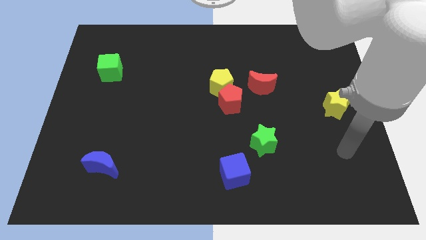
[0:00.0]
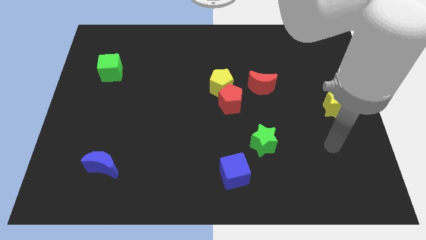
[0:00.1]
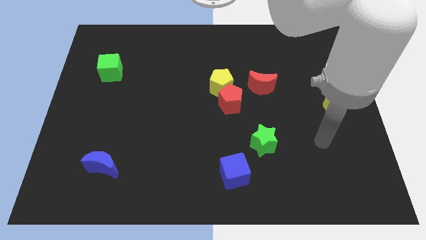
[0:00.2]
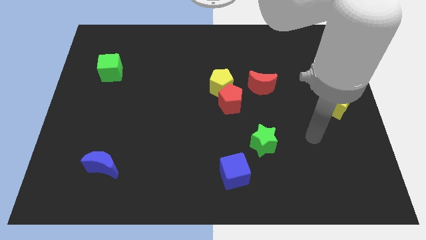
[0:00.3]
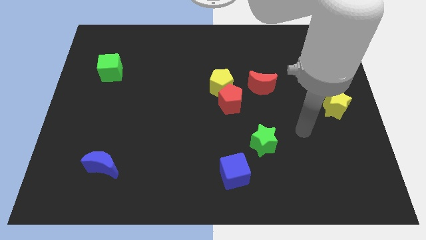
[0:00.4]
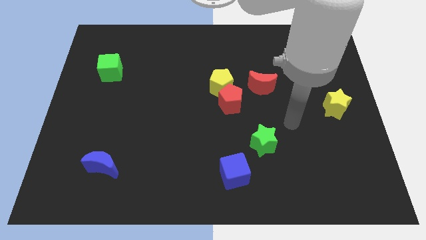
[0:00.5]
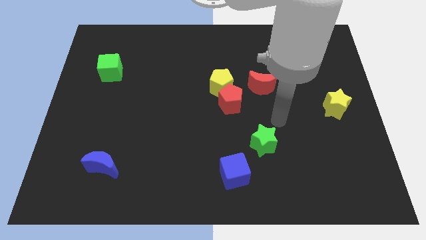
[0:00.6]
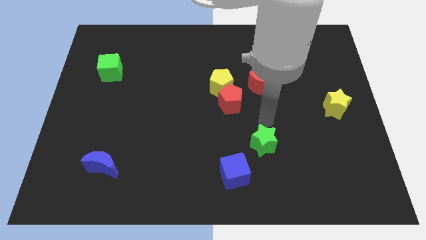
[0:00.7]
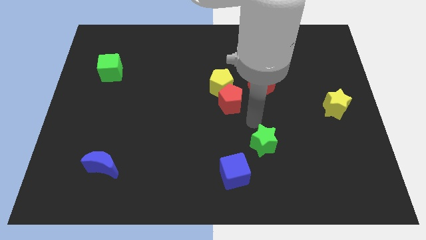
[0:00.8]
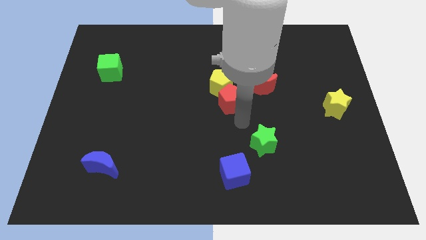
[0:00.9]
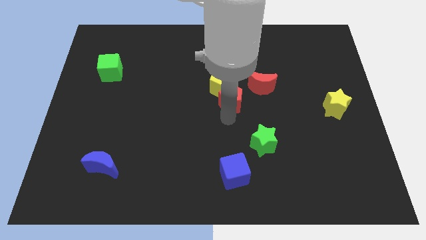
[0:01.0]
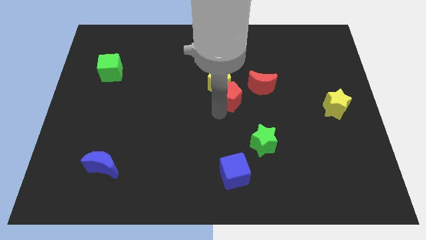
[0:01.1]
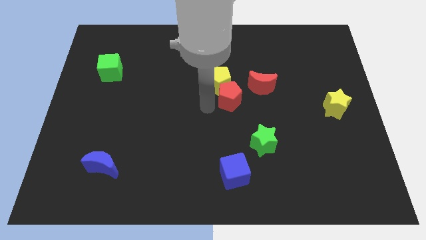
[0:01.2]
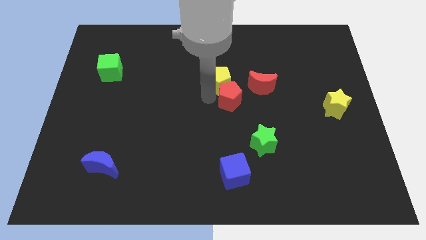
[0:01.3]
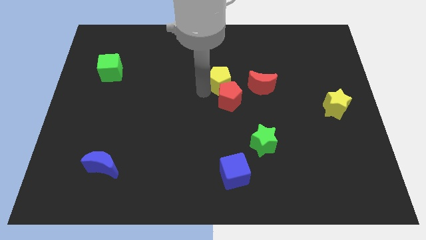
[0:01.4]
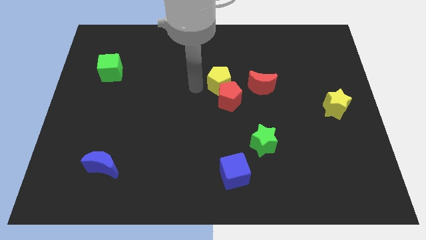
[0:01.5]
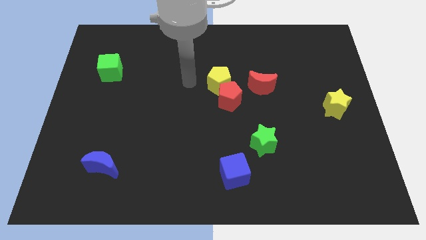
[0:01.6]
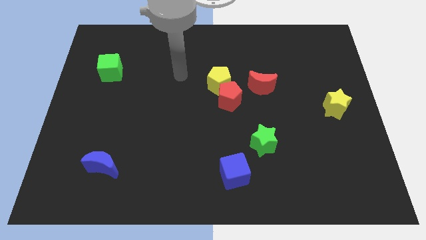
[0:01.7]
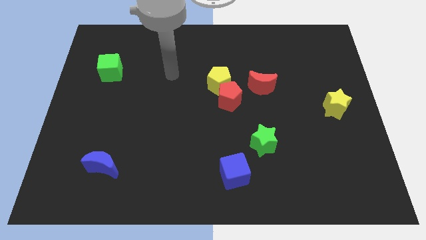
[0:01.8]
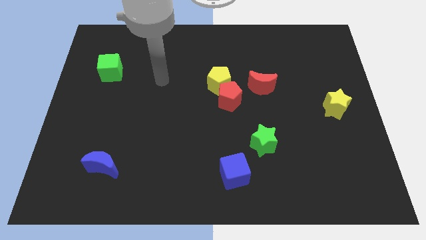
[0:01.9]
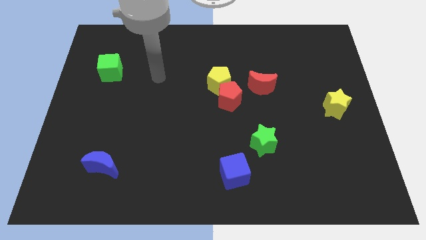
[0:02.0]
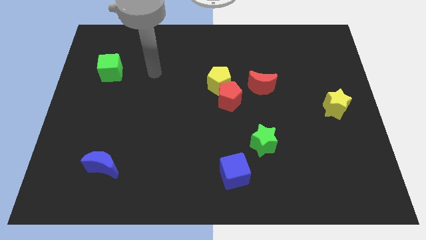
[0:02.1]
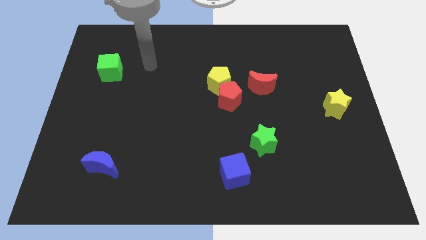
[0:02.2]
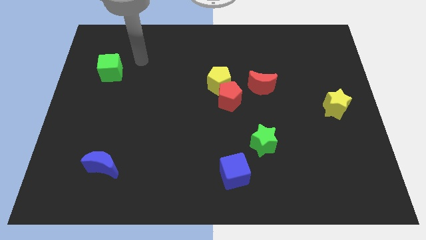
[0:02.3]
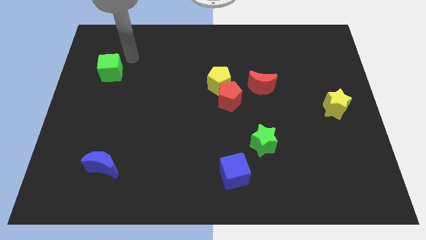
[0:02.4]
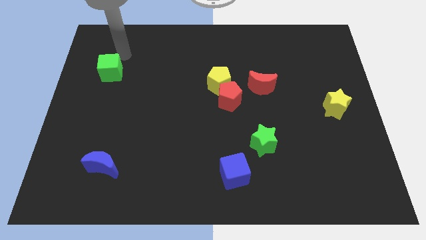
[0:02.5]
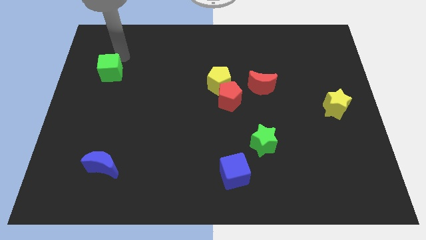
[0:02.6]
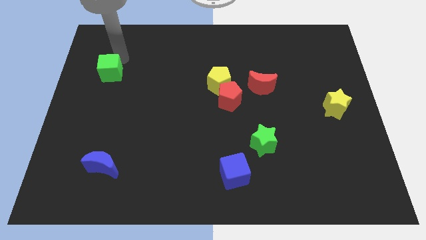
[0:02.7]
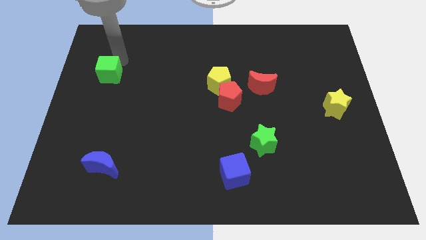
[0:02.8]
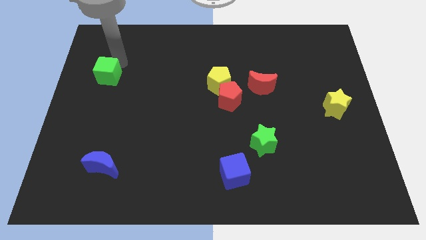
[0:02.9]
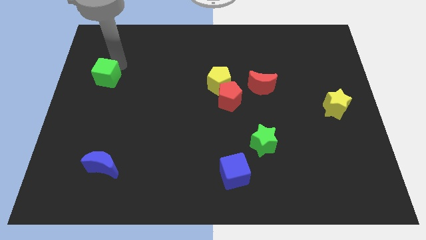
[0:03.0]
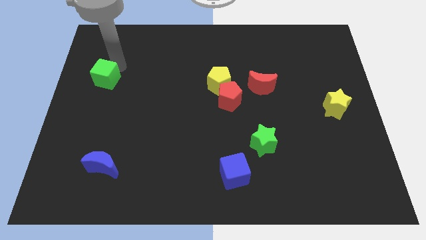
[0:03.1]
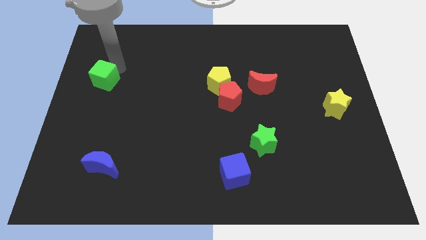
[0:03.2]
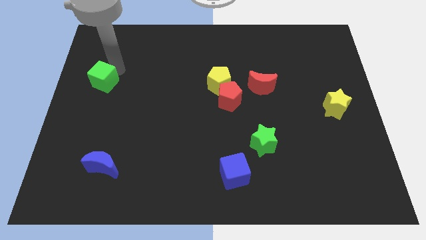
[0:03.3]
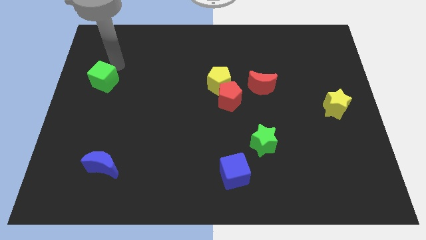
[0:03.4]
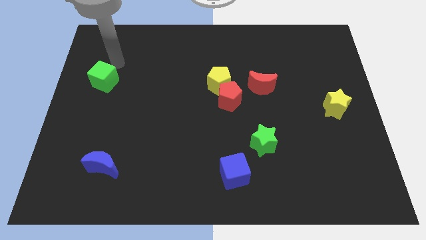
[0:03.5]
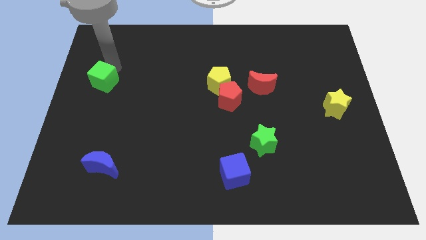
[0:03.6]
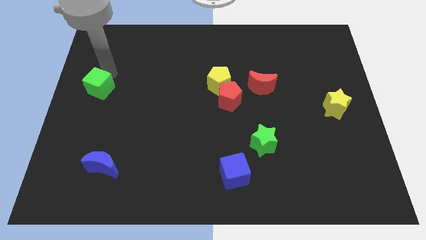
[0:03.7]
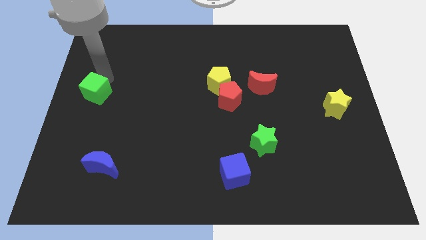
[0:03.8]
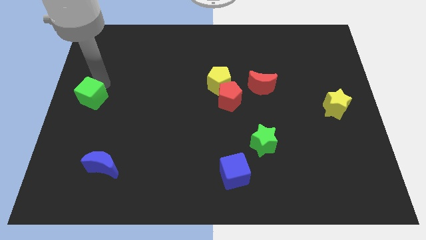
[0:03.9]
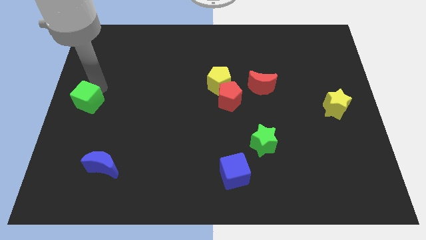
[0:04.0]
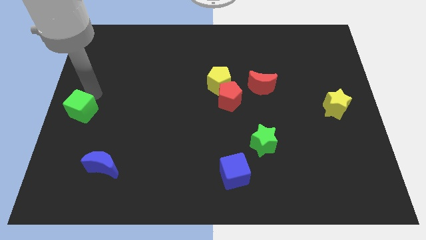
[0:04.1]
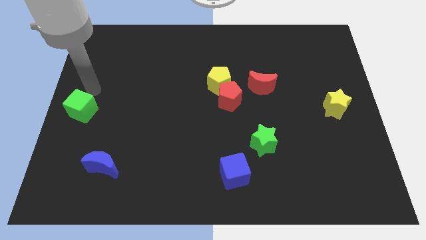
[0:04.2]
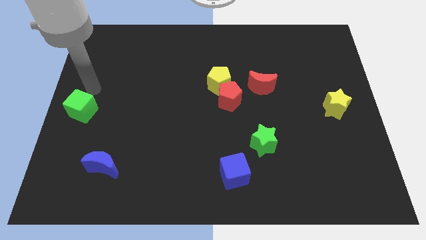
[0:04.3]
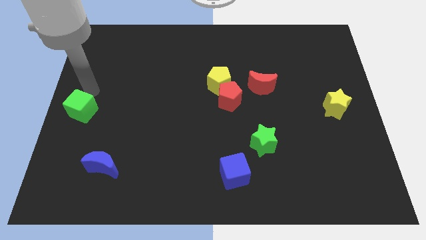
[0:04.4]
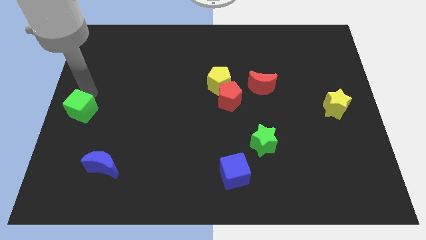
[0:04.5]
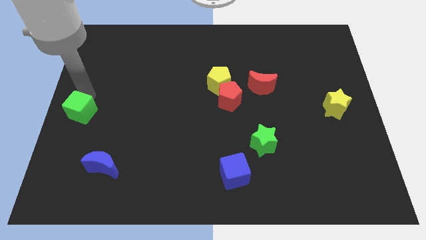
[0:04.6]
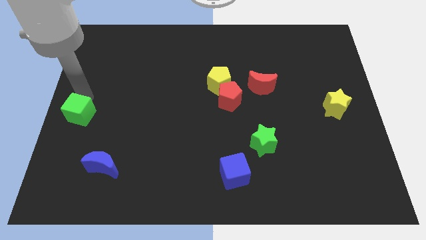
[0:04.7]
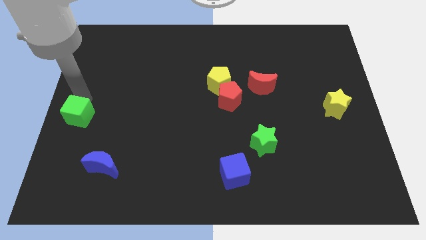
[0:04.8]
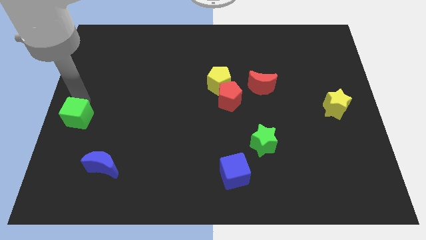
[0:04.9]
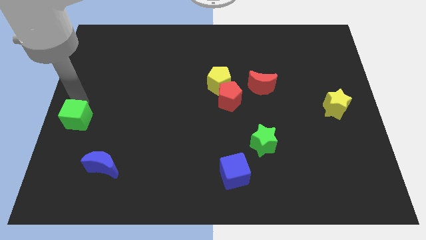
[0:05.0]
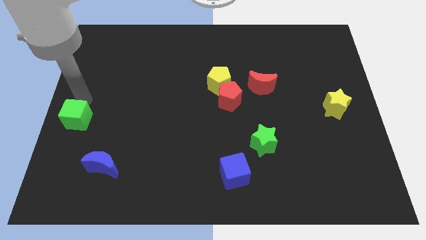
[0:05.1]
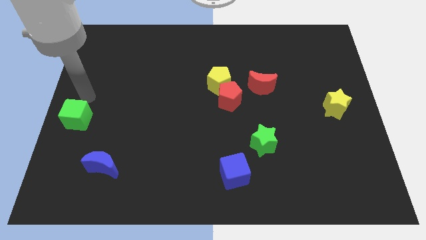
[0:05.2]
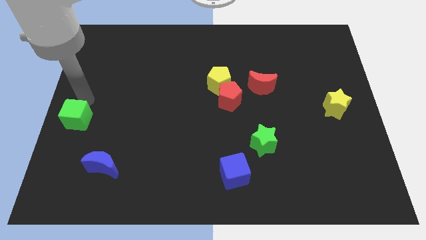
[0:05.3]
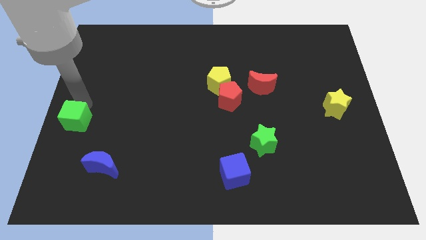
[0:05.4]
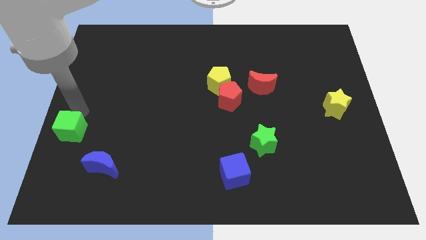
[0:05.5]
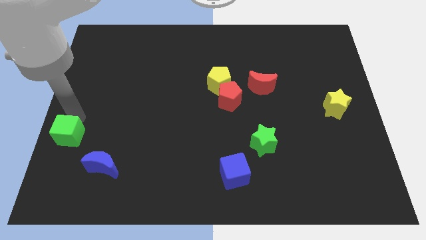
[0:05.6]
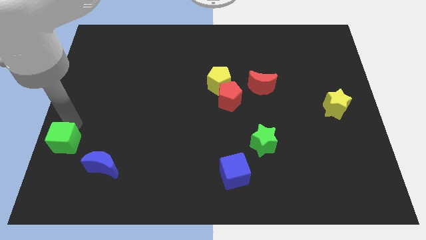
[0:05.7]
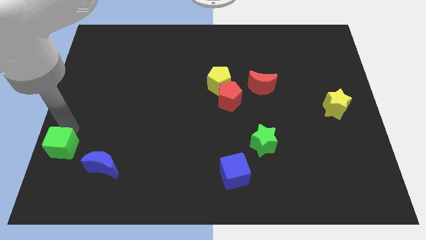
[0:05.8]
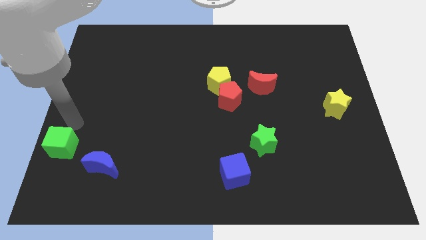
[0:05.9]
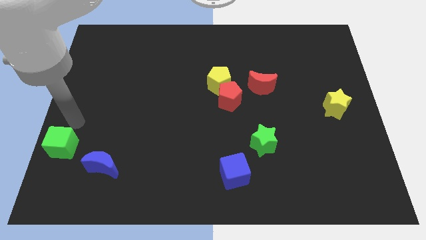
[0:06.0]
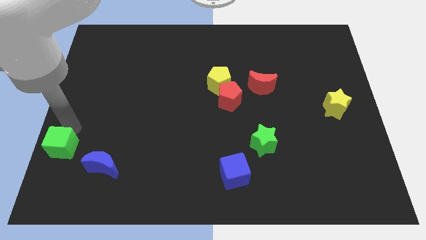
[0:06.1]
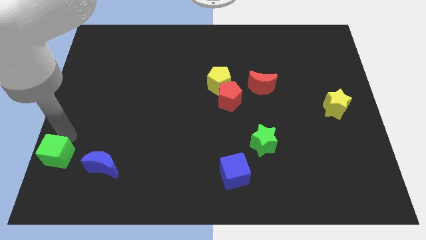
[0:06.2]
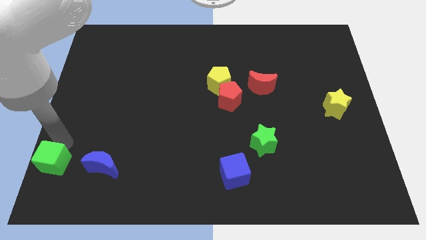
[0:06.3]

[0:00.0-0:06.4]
move the green cube to the bottom left corner
